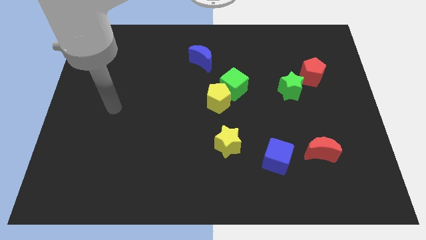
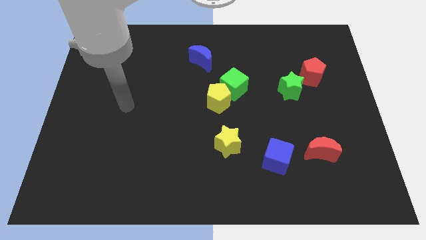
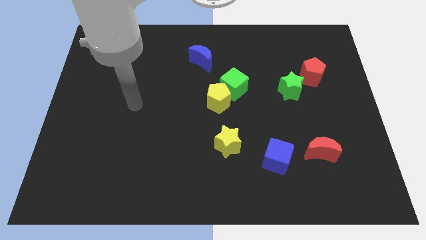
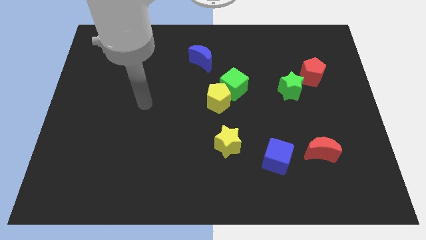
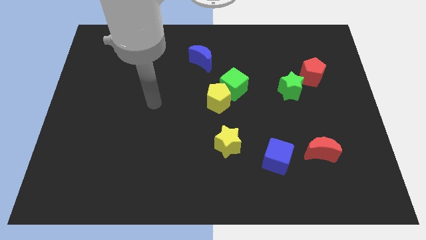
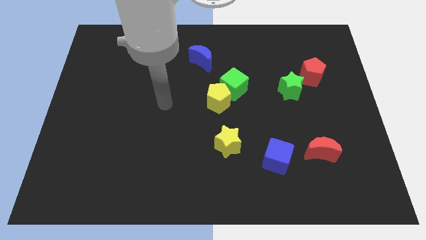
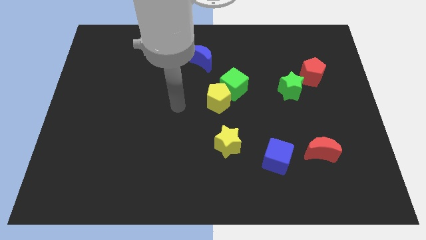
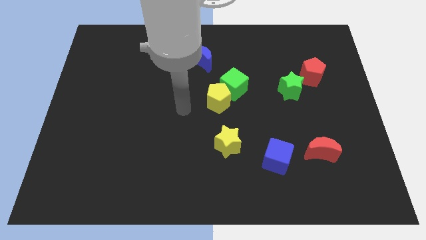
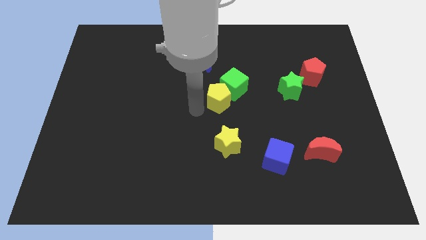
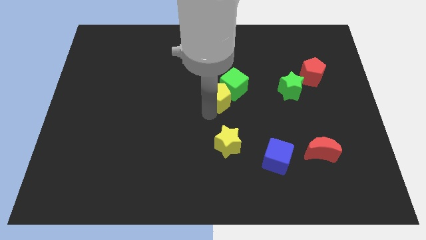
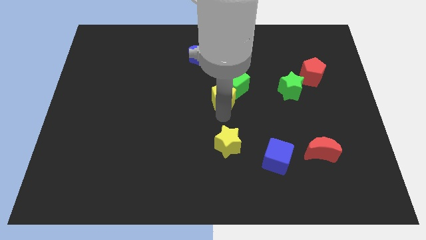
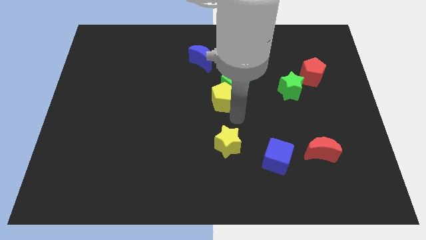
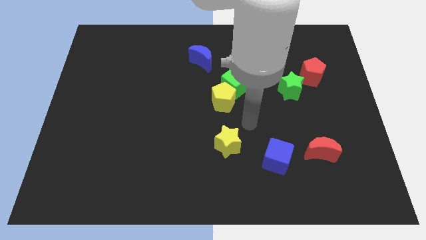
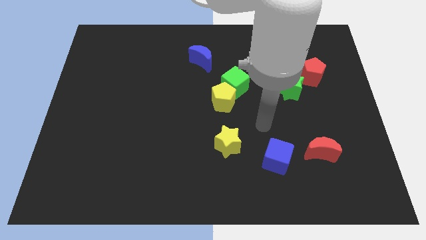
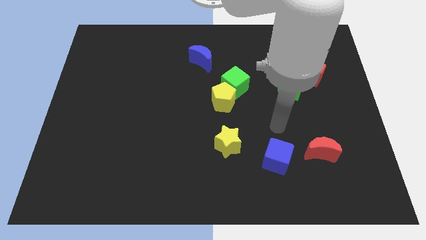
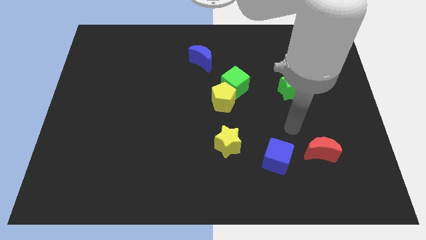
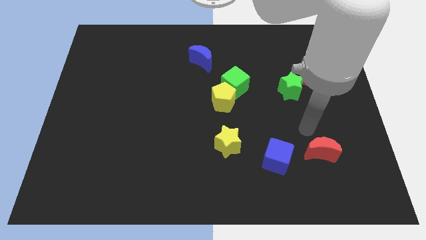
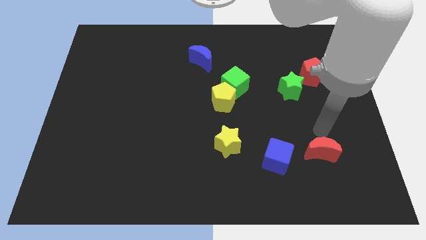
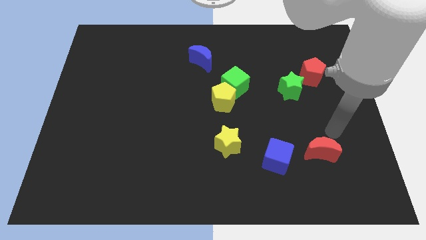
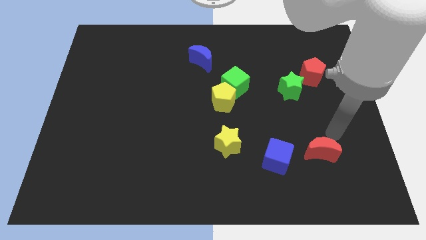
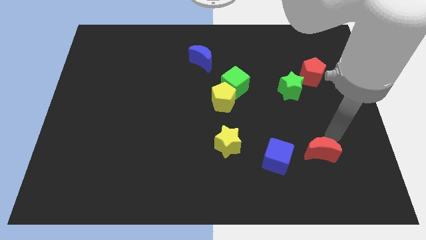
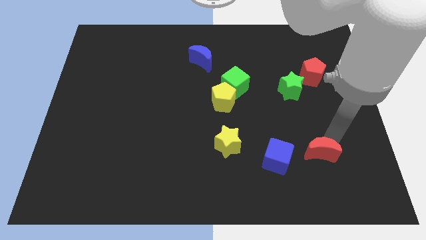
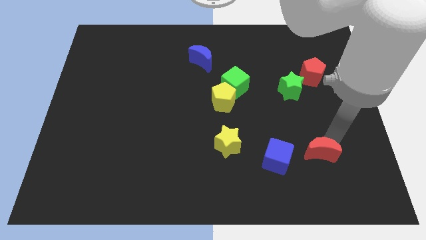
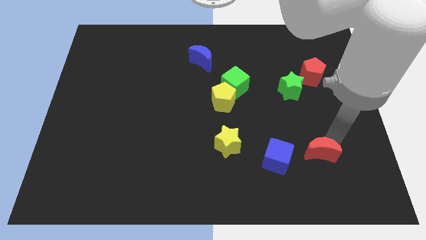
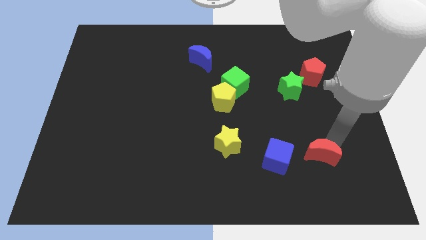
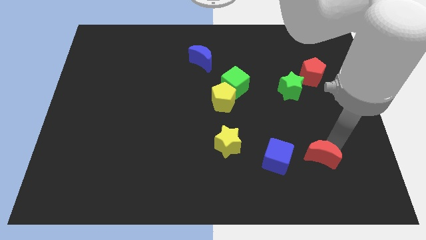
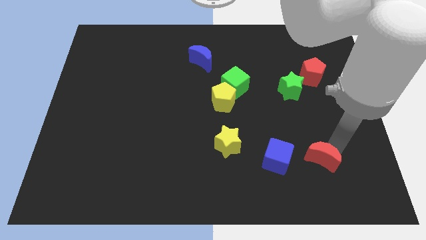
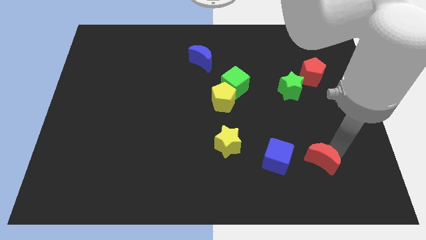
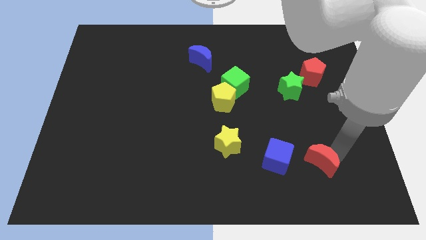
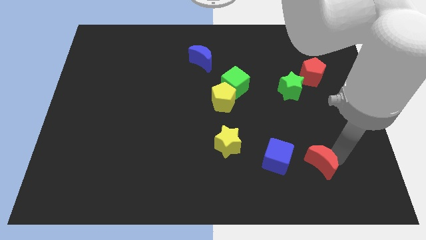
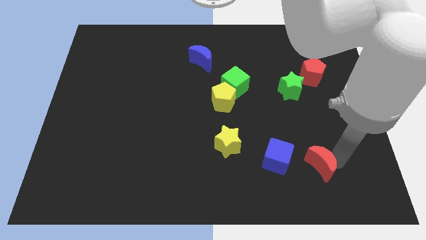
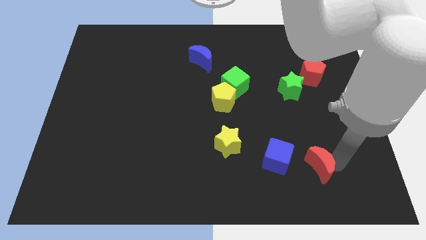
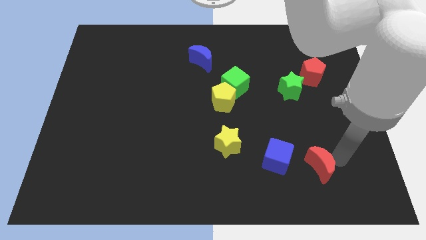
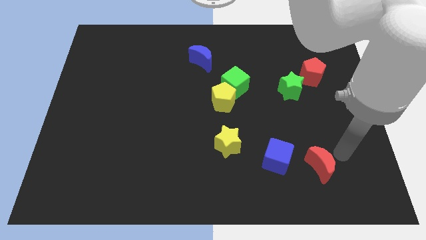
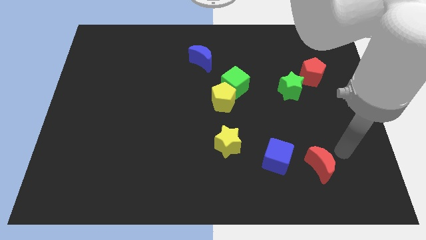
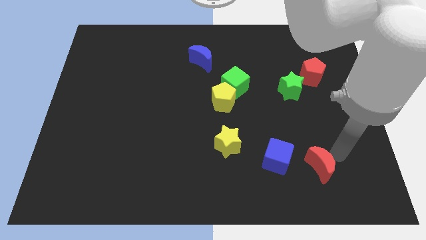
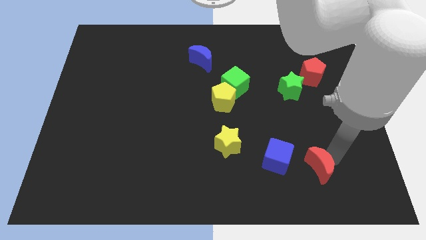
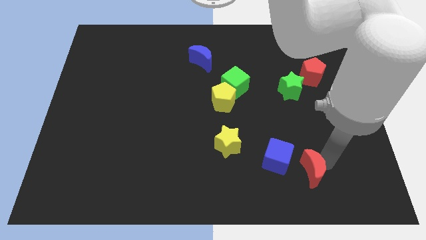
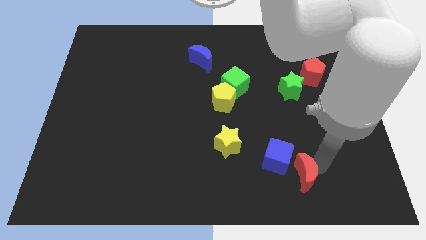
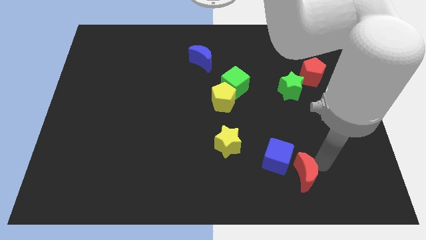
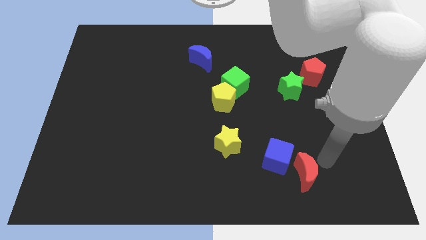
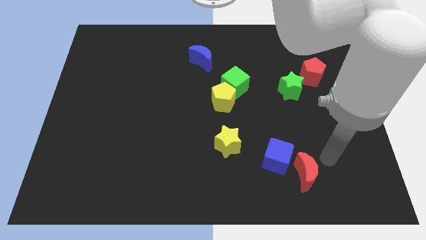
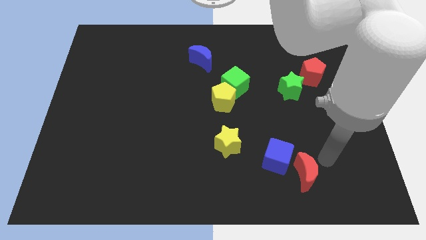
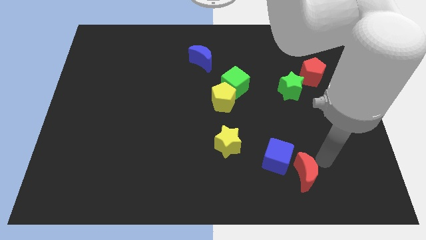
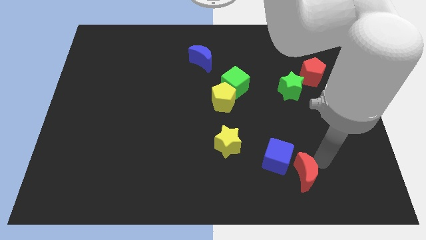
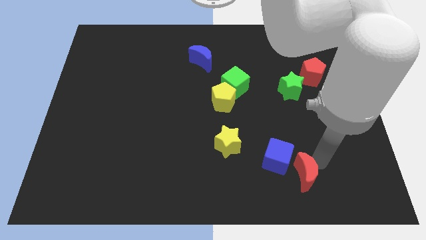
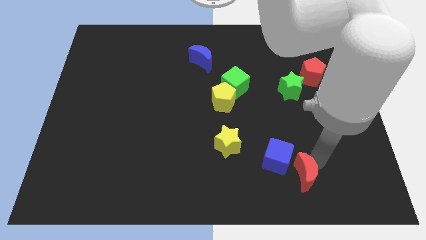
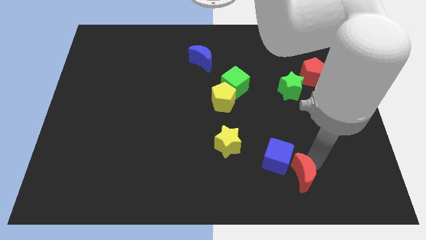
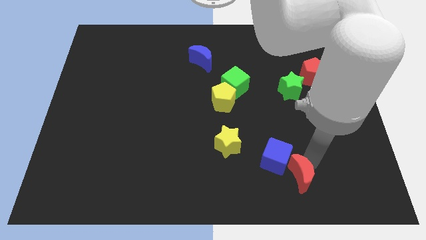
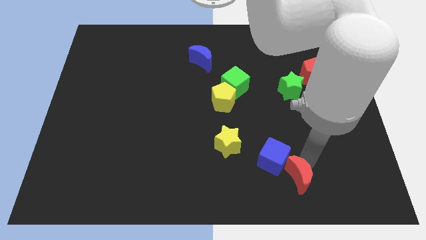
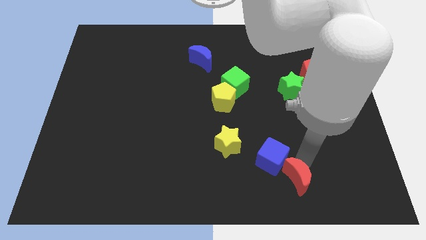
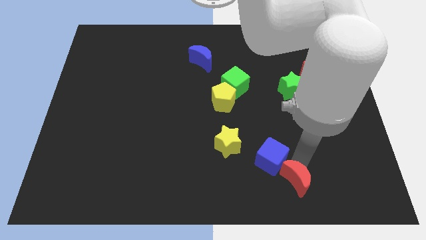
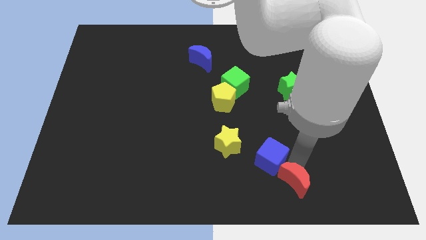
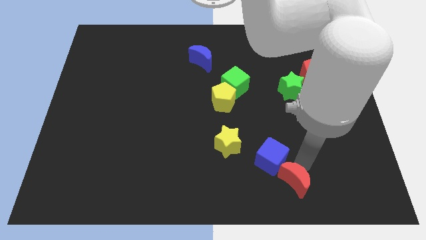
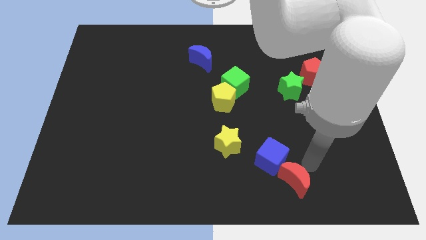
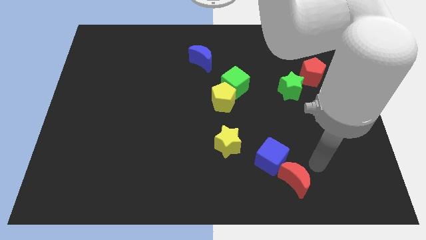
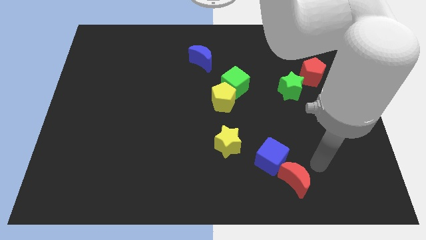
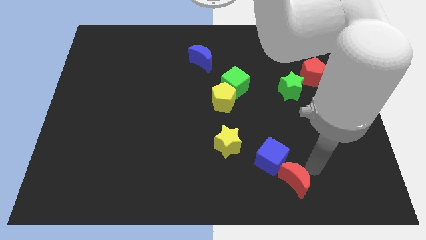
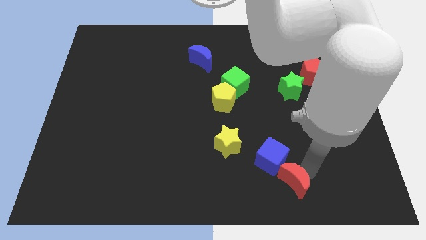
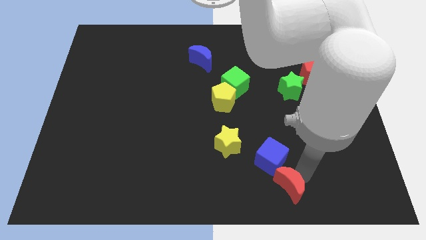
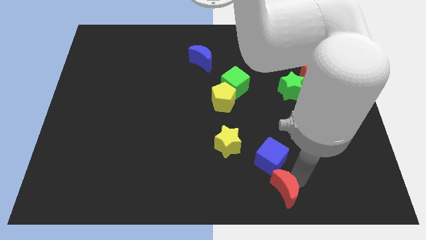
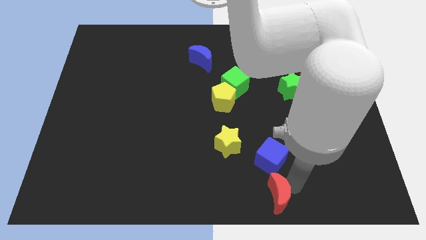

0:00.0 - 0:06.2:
push the red moon to the bottom
